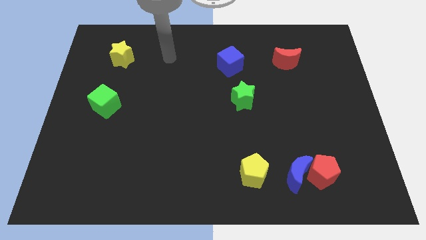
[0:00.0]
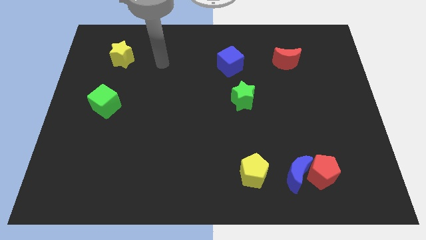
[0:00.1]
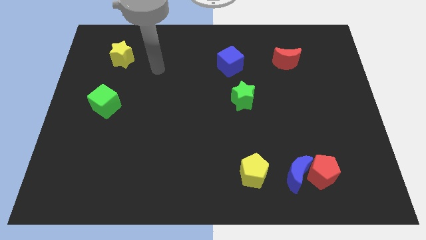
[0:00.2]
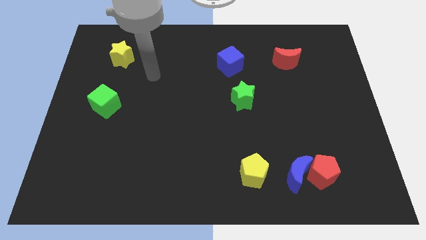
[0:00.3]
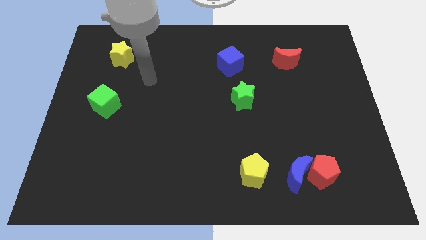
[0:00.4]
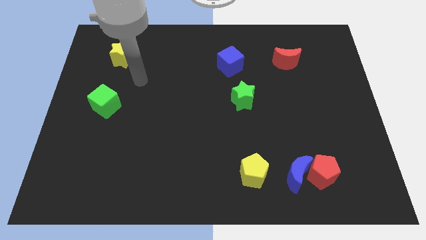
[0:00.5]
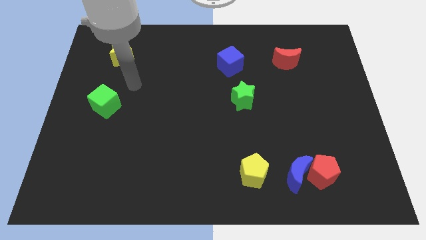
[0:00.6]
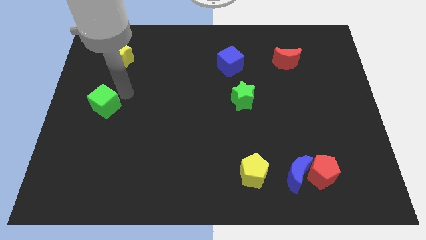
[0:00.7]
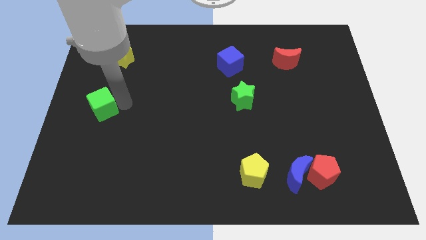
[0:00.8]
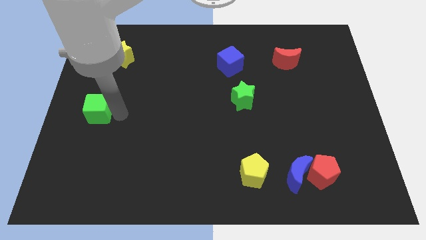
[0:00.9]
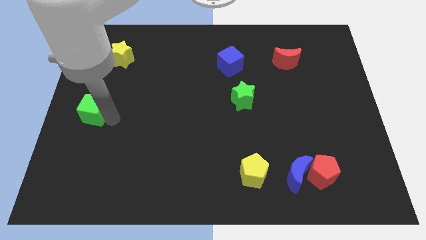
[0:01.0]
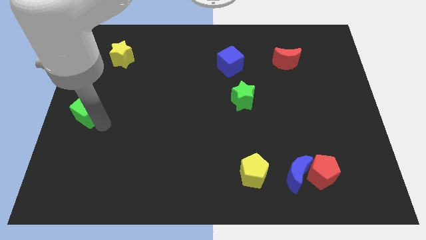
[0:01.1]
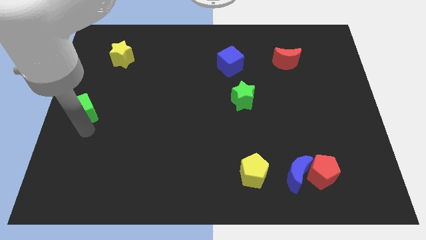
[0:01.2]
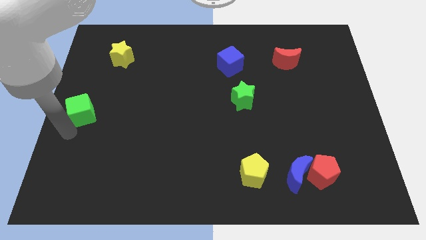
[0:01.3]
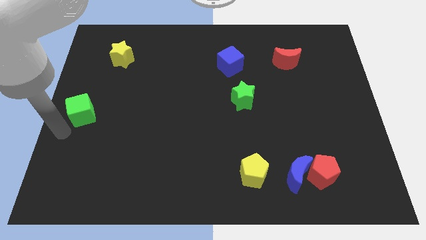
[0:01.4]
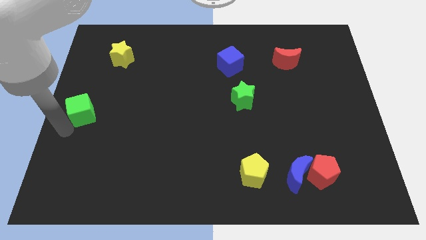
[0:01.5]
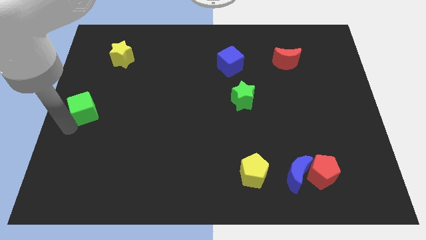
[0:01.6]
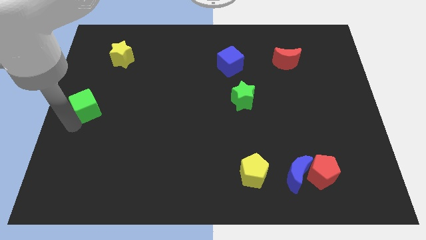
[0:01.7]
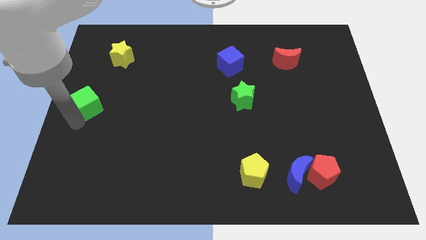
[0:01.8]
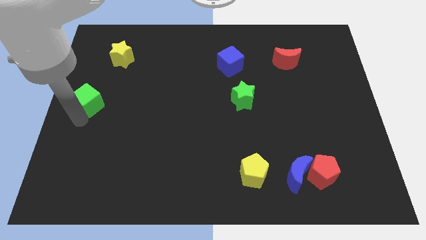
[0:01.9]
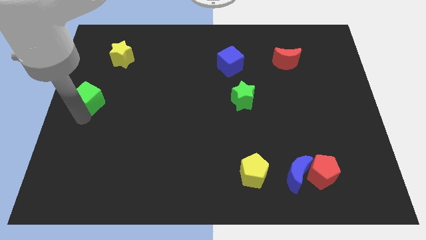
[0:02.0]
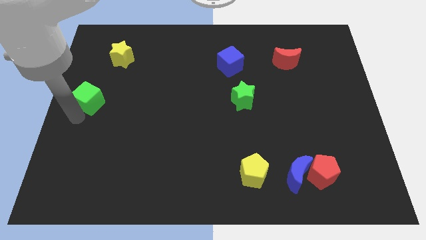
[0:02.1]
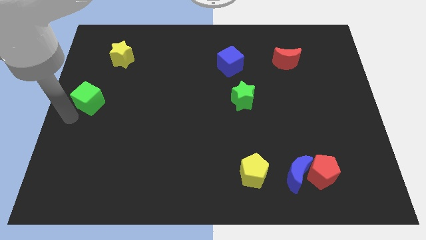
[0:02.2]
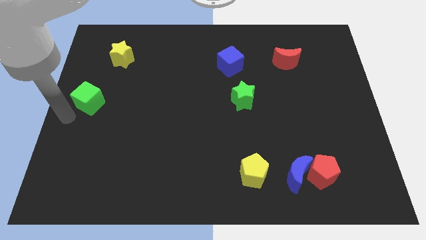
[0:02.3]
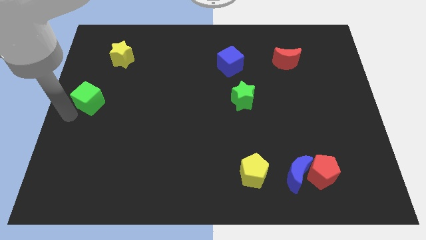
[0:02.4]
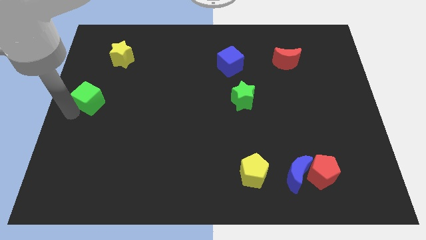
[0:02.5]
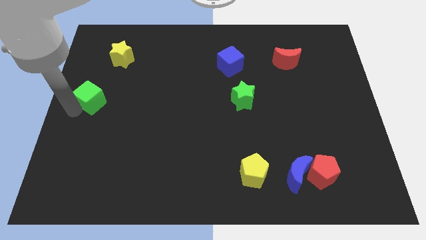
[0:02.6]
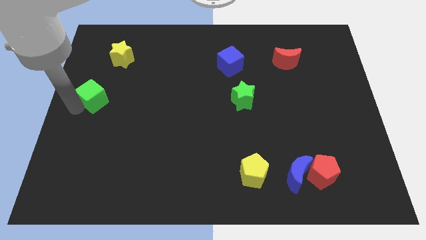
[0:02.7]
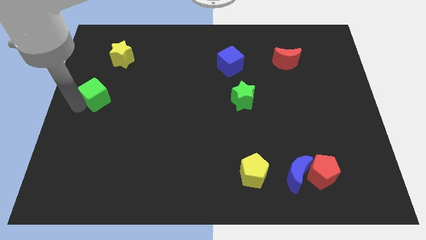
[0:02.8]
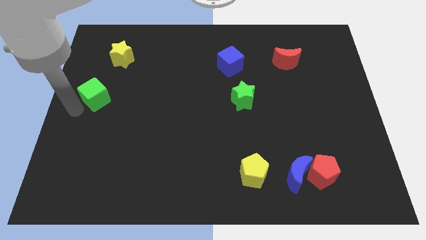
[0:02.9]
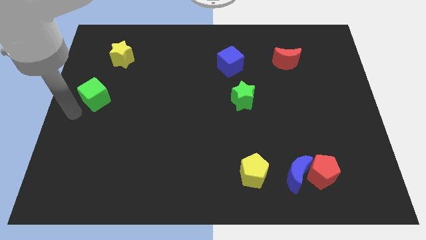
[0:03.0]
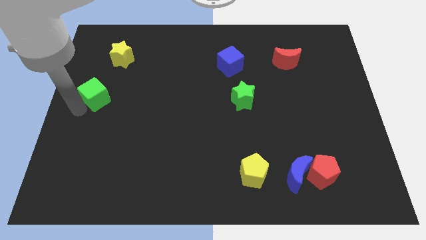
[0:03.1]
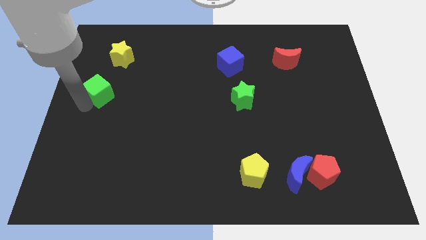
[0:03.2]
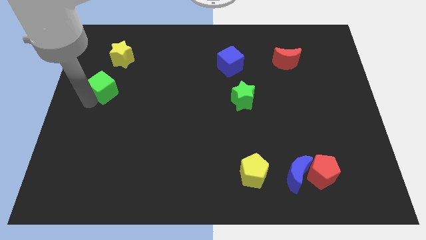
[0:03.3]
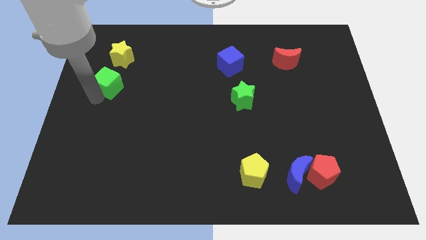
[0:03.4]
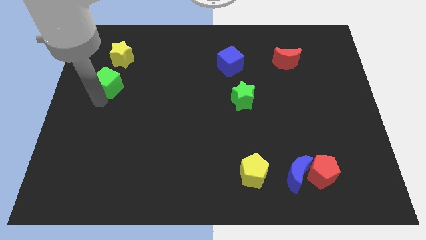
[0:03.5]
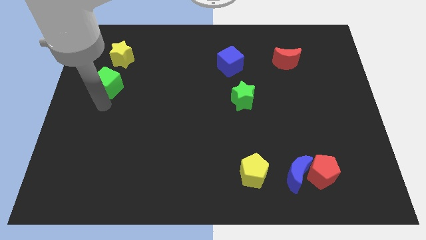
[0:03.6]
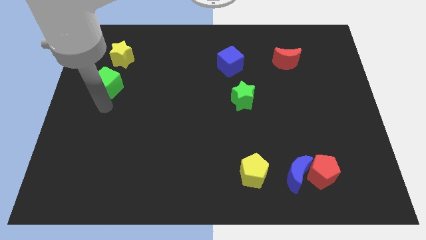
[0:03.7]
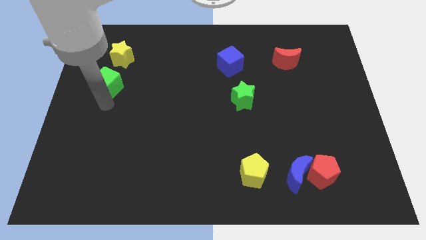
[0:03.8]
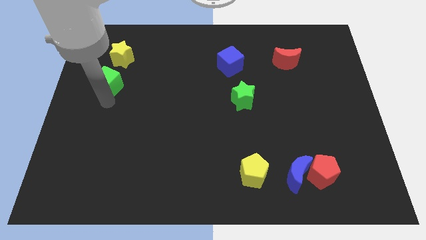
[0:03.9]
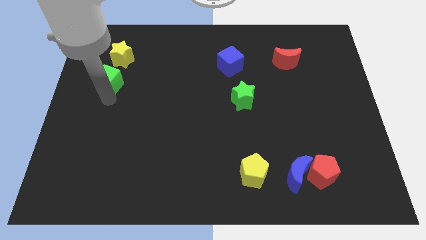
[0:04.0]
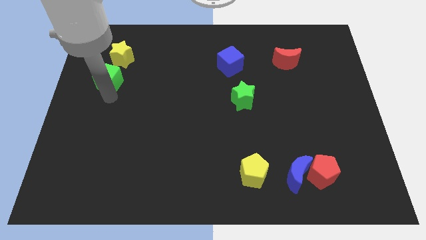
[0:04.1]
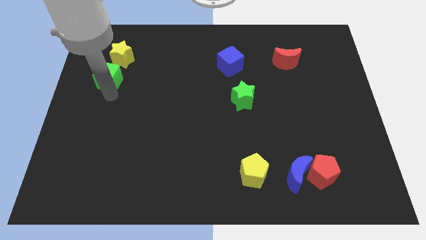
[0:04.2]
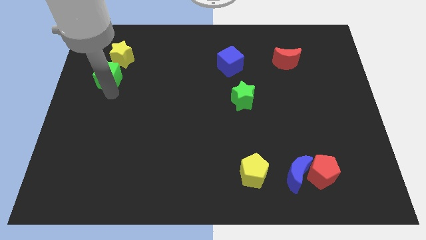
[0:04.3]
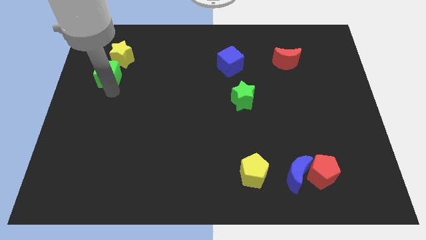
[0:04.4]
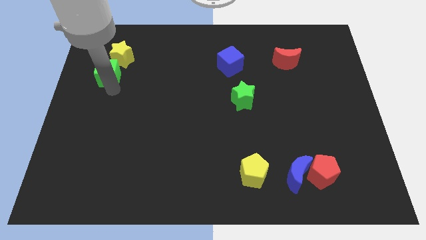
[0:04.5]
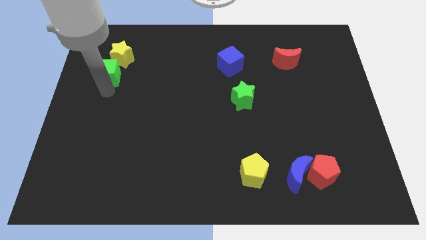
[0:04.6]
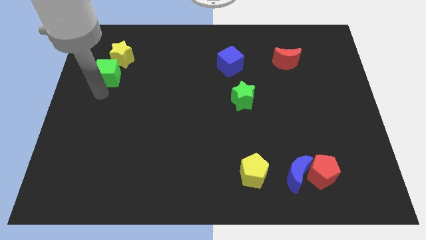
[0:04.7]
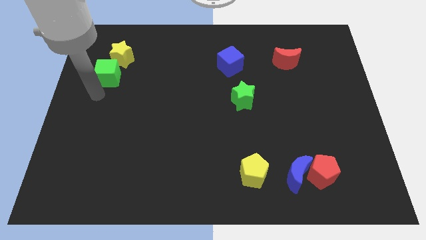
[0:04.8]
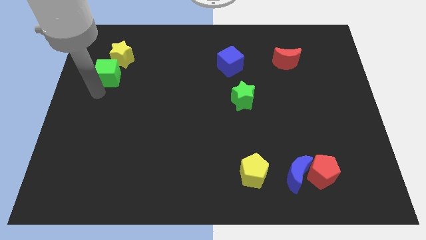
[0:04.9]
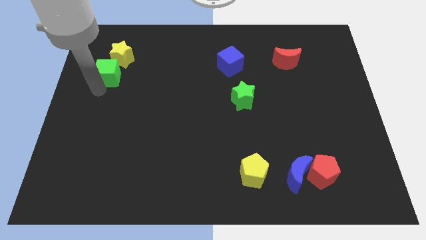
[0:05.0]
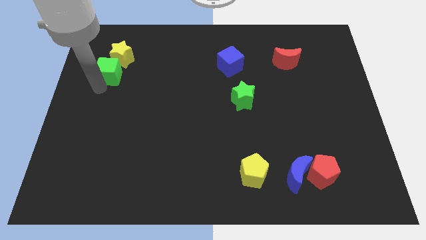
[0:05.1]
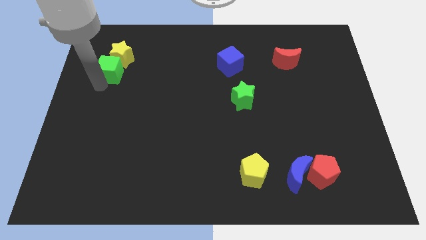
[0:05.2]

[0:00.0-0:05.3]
put the green cube close to the yellow star

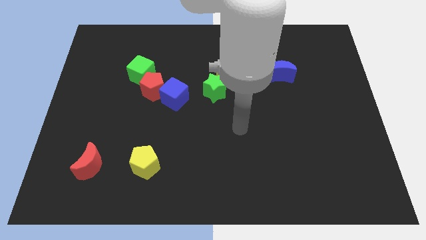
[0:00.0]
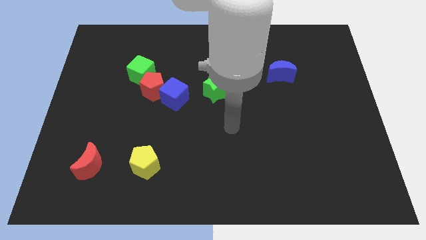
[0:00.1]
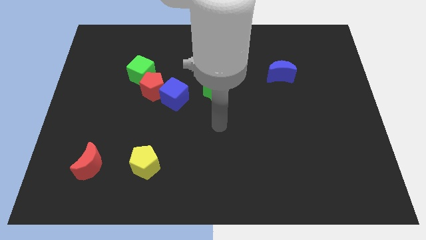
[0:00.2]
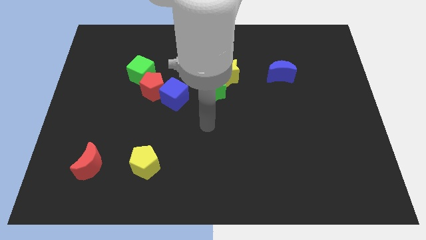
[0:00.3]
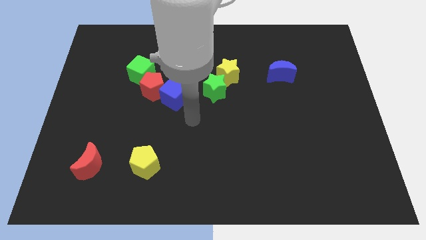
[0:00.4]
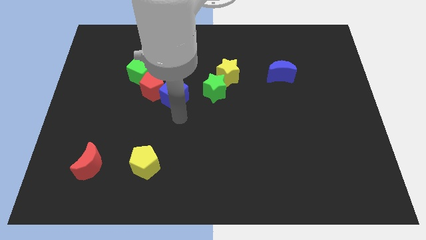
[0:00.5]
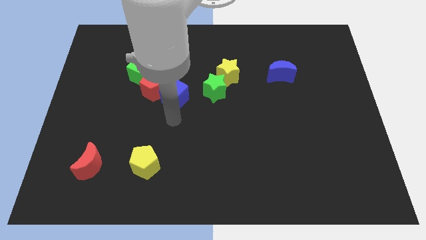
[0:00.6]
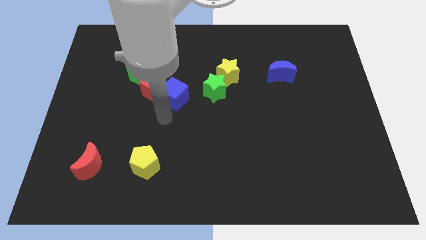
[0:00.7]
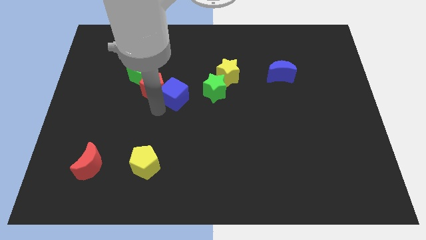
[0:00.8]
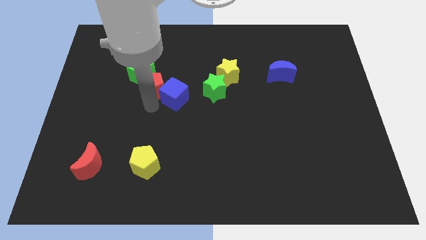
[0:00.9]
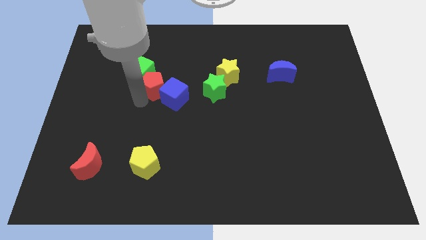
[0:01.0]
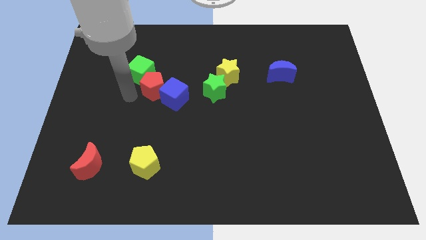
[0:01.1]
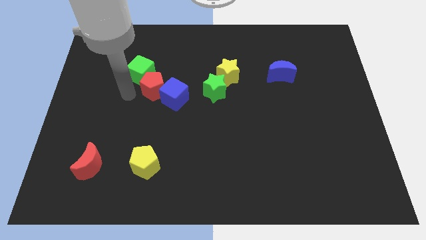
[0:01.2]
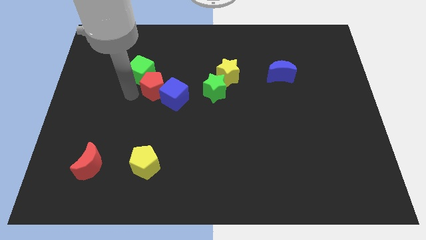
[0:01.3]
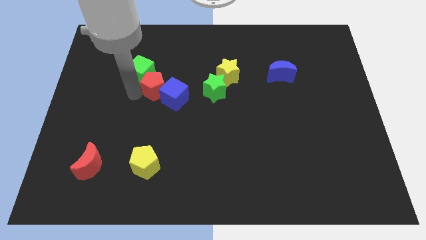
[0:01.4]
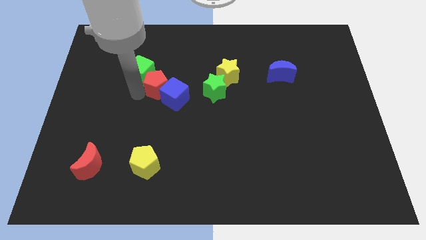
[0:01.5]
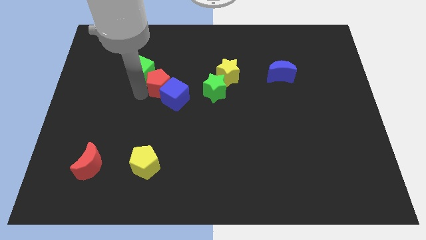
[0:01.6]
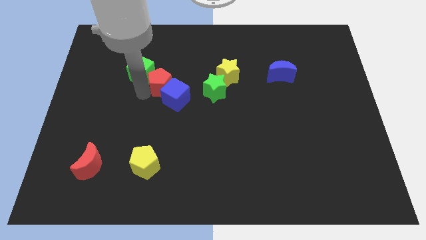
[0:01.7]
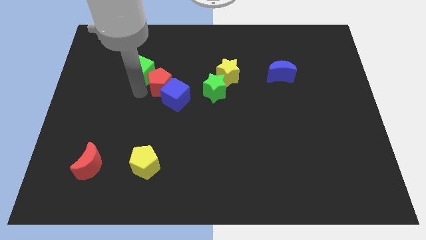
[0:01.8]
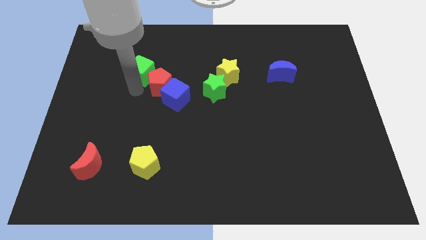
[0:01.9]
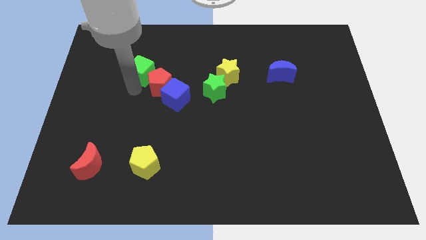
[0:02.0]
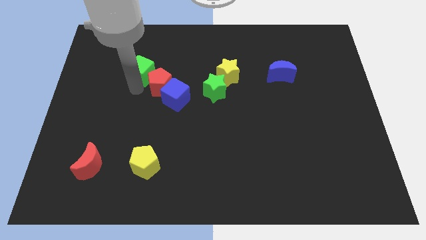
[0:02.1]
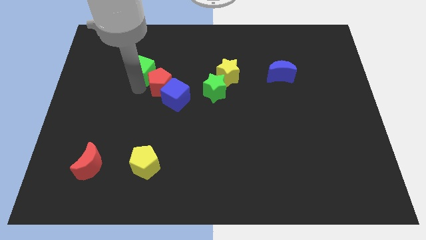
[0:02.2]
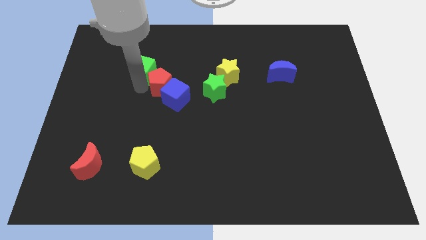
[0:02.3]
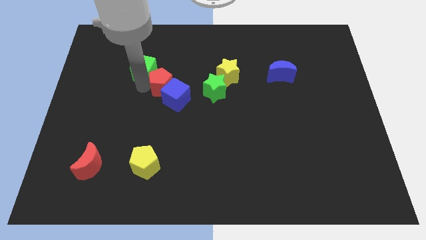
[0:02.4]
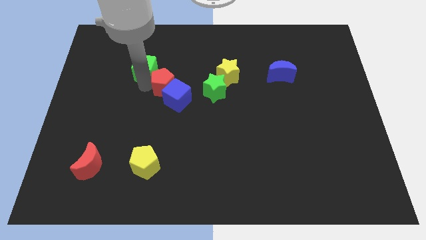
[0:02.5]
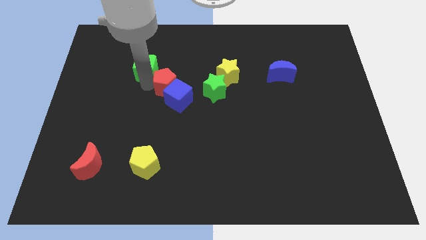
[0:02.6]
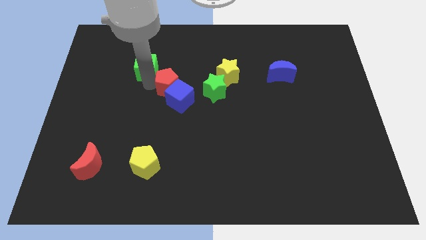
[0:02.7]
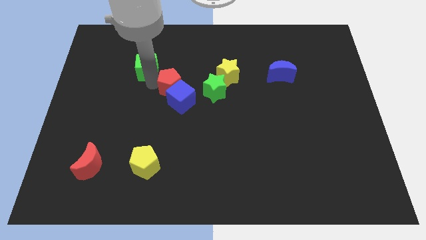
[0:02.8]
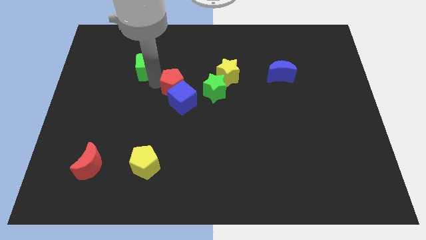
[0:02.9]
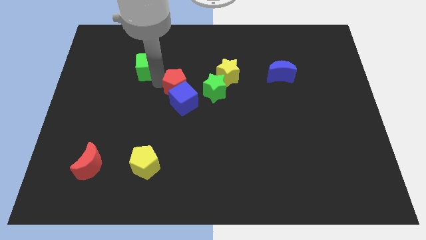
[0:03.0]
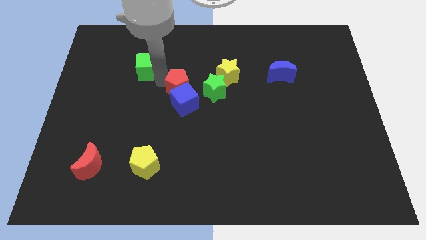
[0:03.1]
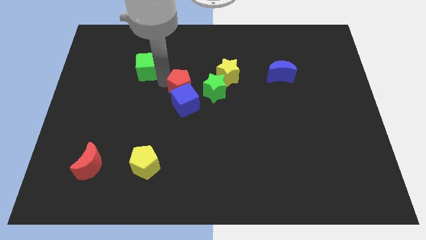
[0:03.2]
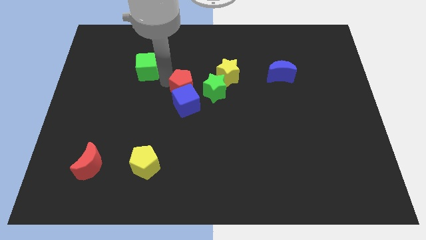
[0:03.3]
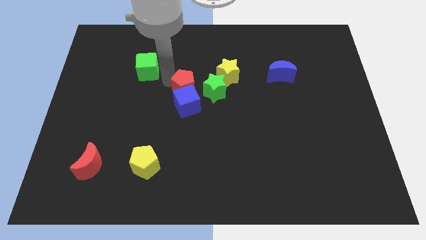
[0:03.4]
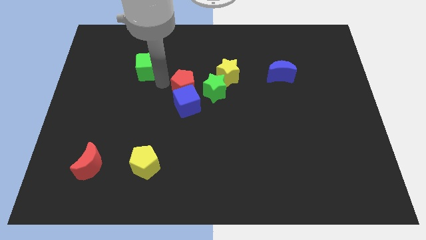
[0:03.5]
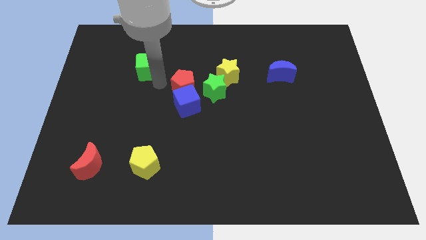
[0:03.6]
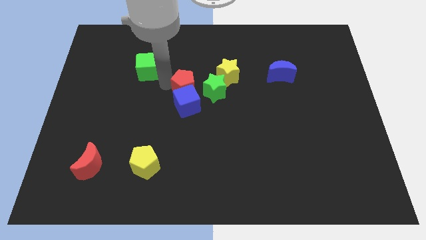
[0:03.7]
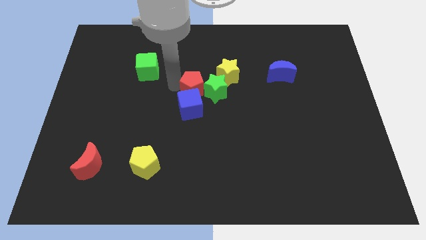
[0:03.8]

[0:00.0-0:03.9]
push the red pentagon towards the green star
